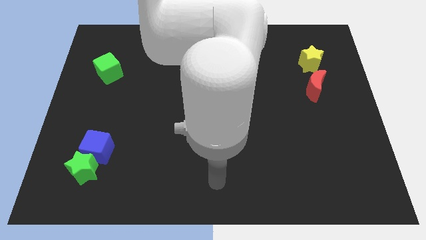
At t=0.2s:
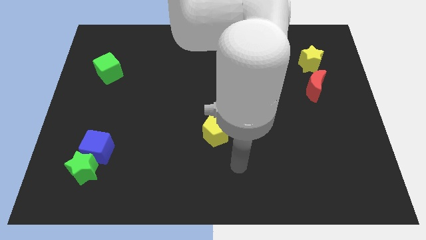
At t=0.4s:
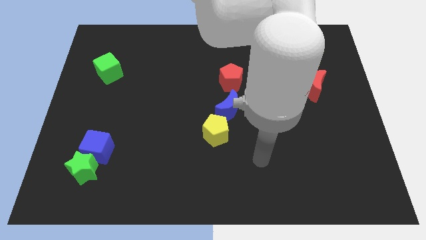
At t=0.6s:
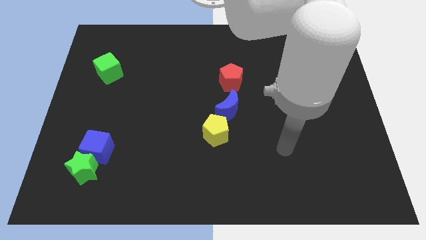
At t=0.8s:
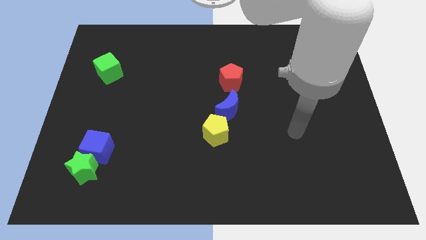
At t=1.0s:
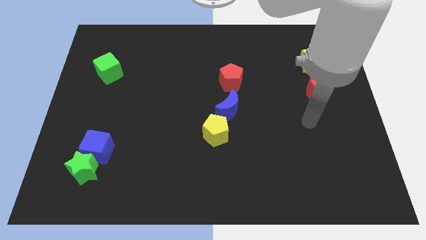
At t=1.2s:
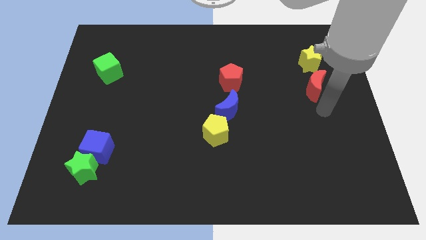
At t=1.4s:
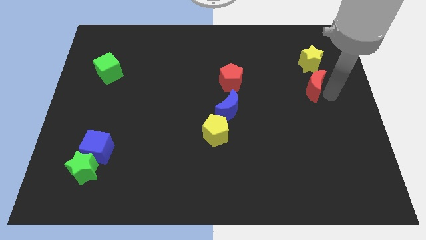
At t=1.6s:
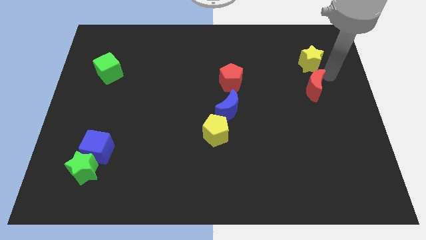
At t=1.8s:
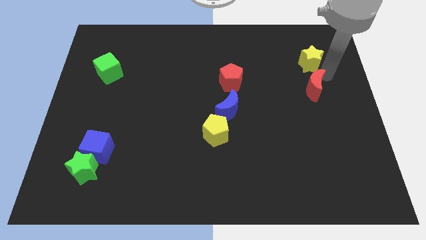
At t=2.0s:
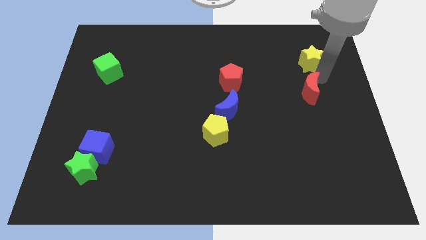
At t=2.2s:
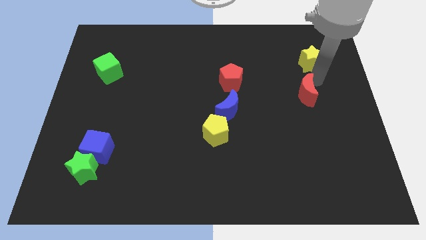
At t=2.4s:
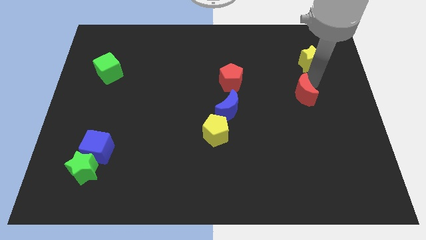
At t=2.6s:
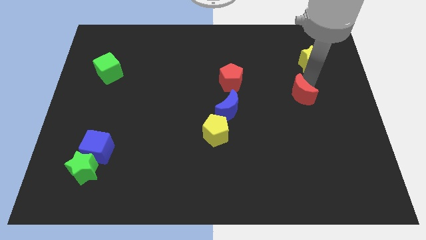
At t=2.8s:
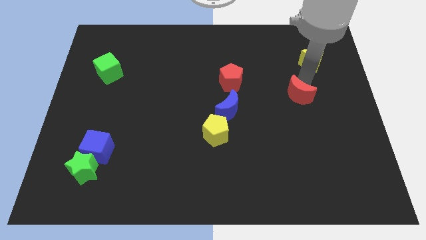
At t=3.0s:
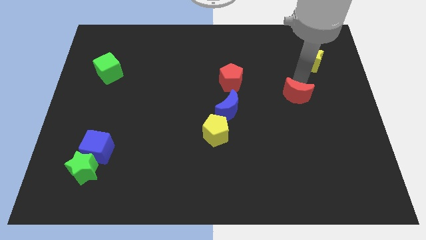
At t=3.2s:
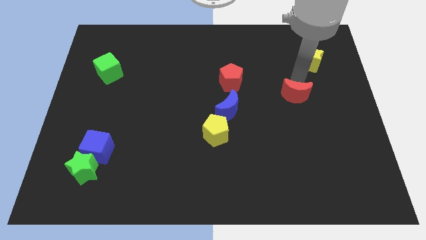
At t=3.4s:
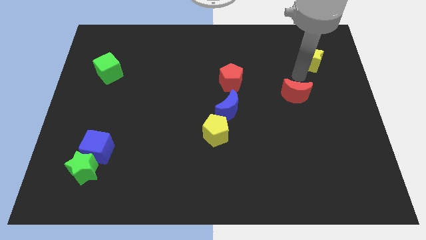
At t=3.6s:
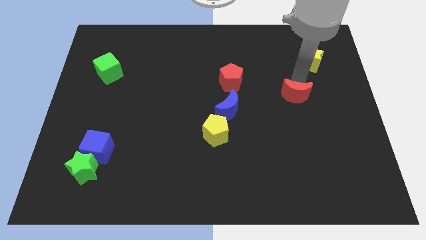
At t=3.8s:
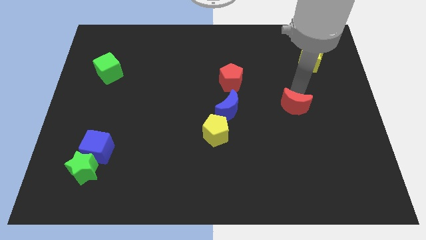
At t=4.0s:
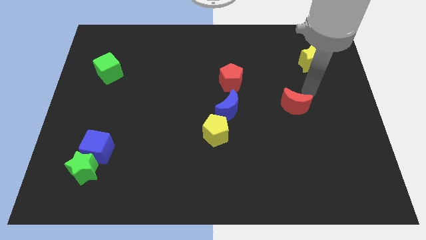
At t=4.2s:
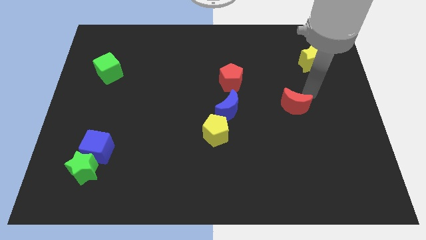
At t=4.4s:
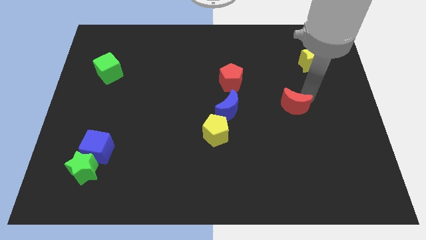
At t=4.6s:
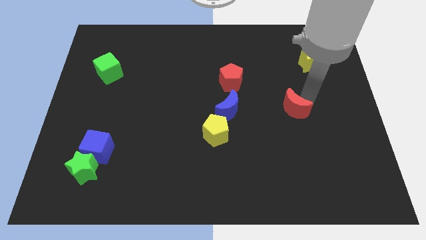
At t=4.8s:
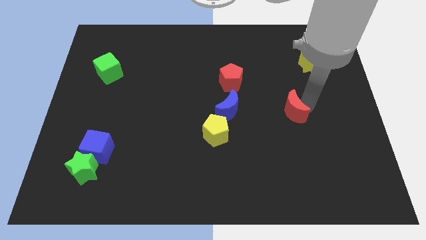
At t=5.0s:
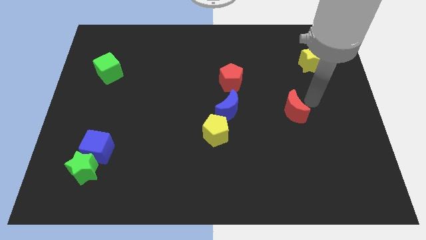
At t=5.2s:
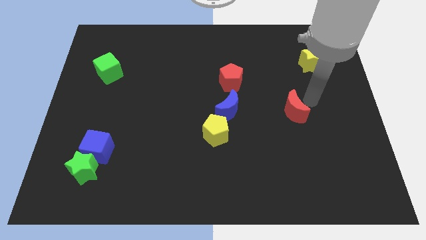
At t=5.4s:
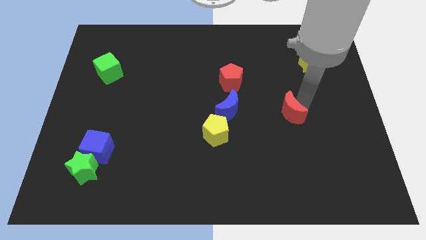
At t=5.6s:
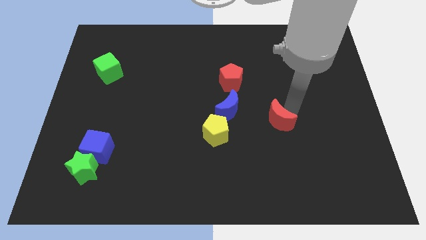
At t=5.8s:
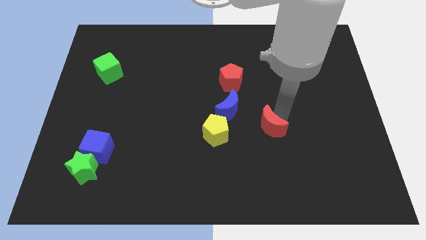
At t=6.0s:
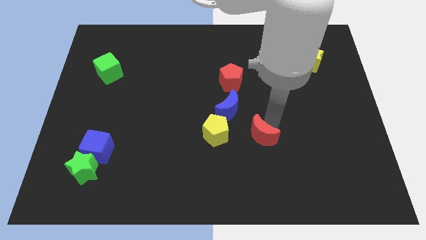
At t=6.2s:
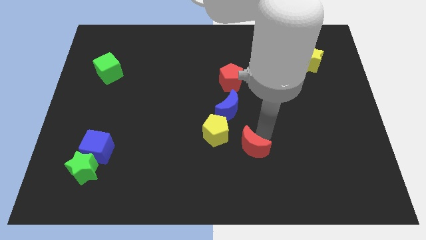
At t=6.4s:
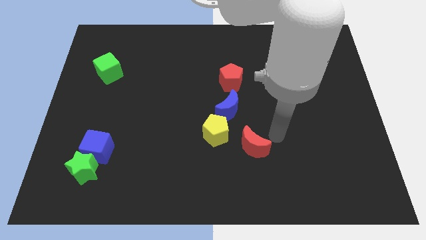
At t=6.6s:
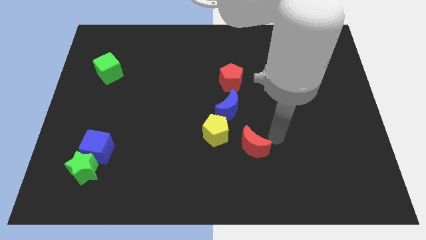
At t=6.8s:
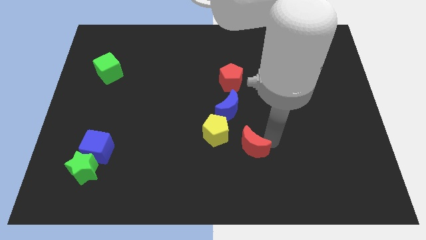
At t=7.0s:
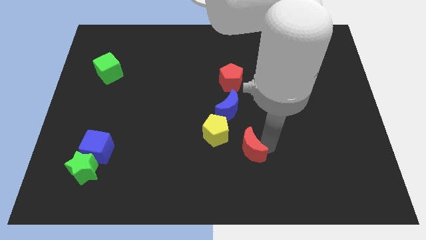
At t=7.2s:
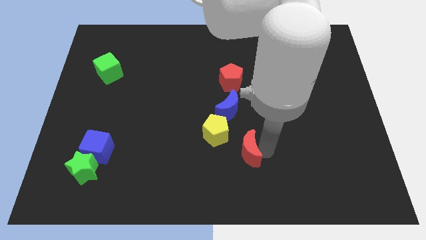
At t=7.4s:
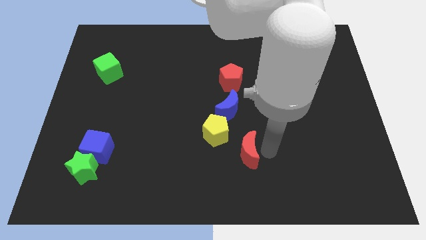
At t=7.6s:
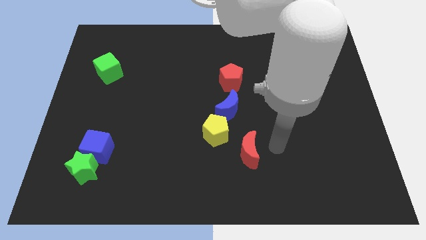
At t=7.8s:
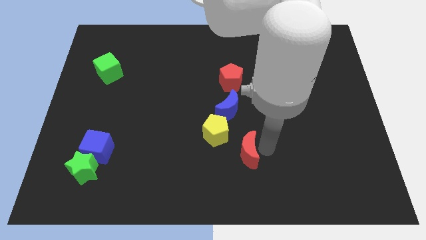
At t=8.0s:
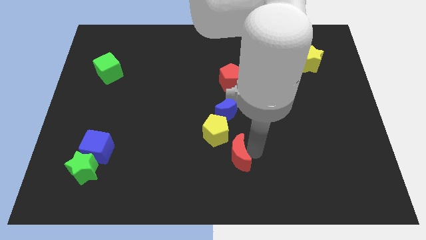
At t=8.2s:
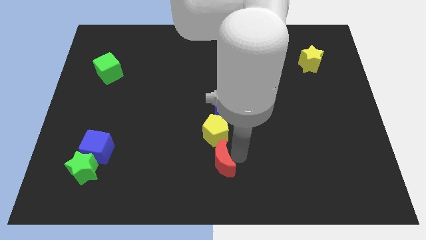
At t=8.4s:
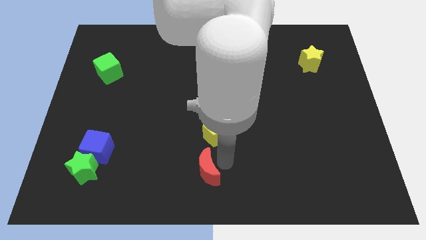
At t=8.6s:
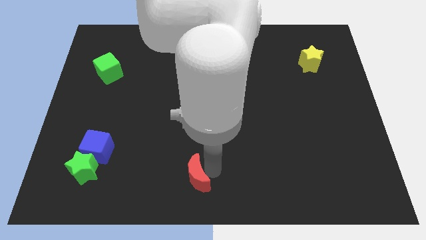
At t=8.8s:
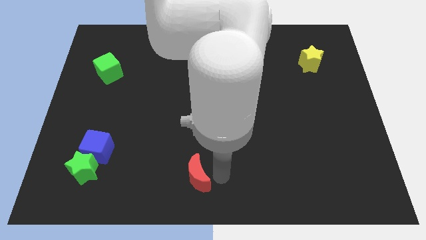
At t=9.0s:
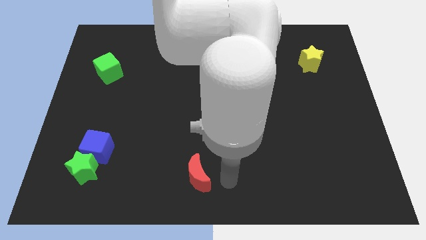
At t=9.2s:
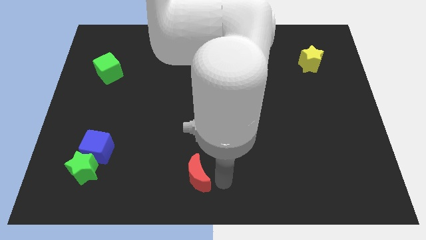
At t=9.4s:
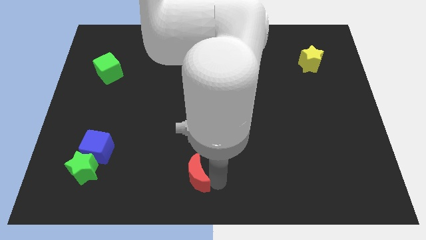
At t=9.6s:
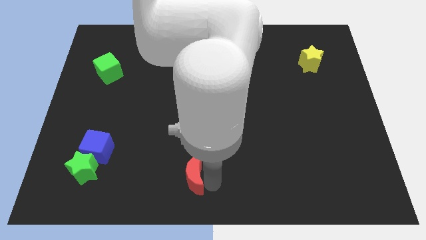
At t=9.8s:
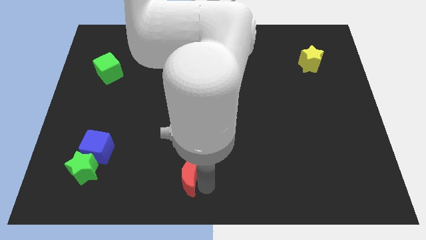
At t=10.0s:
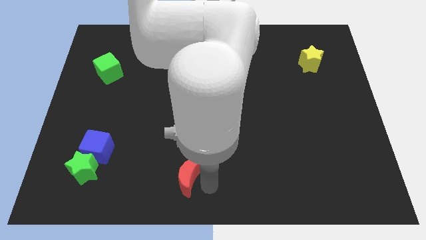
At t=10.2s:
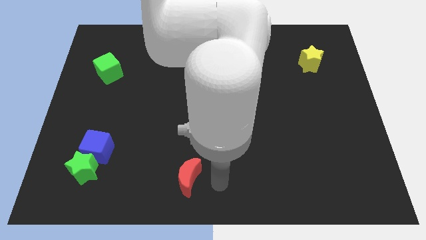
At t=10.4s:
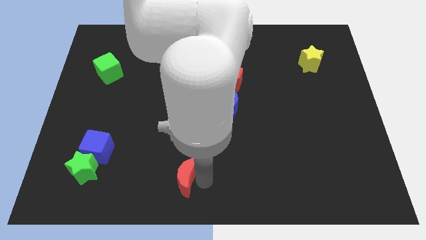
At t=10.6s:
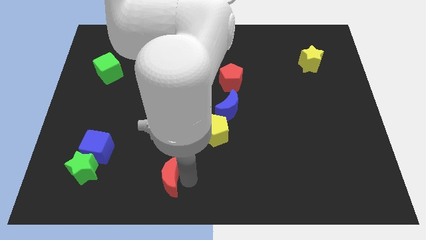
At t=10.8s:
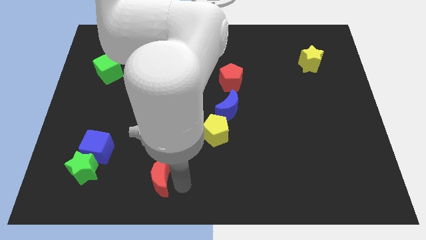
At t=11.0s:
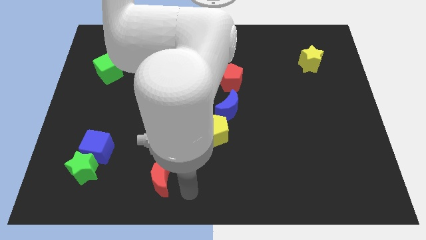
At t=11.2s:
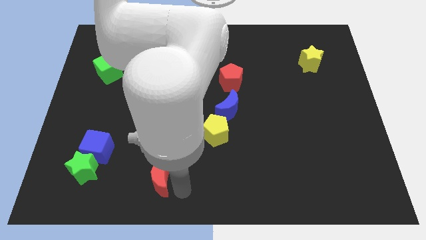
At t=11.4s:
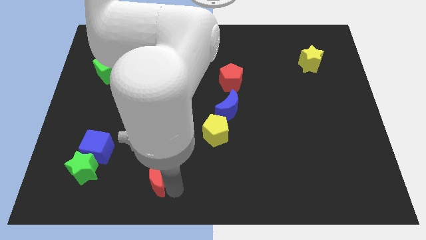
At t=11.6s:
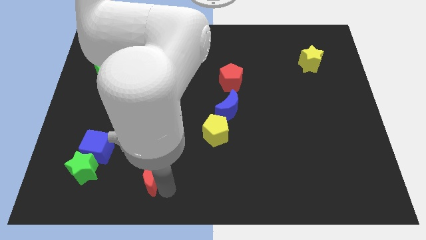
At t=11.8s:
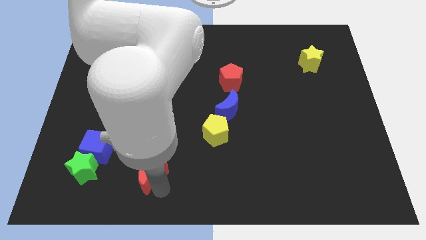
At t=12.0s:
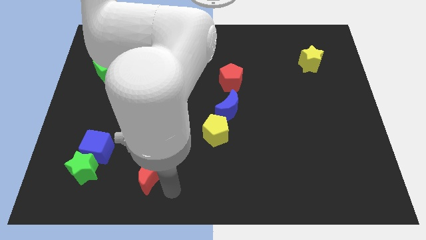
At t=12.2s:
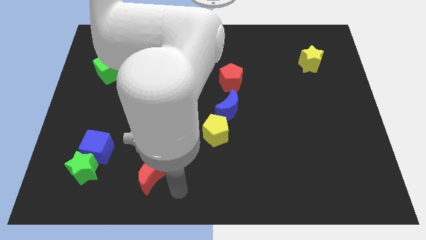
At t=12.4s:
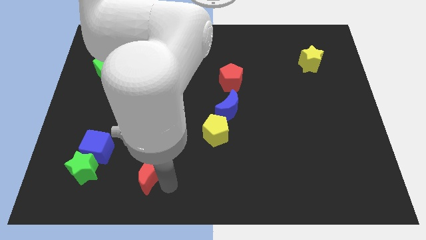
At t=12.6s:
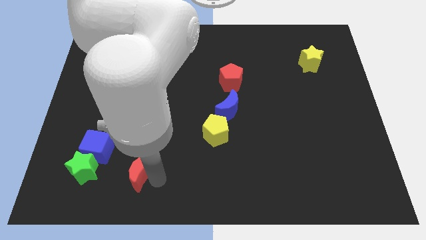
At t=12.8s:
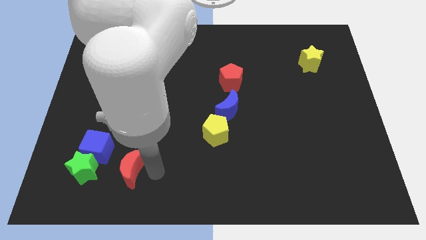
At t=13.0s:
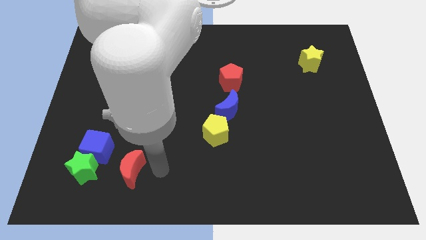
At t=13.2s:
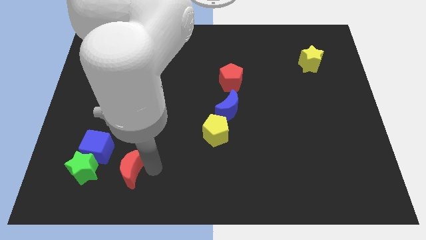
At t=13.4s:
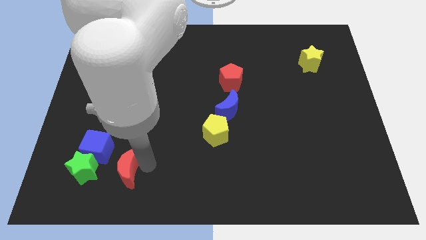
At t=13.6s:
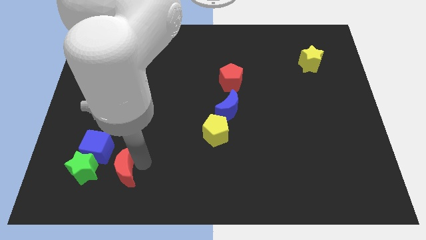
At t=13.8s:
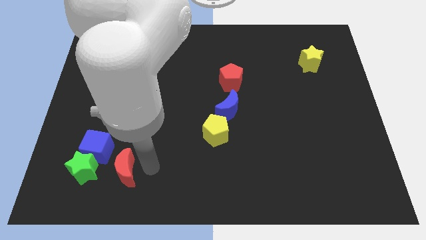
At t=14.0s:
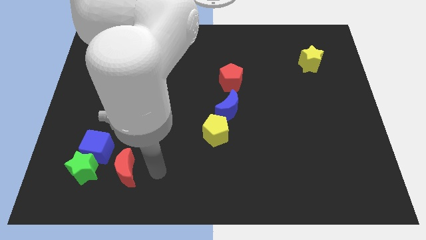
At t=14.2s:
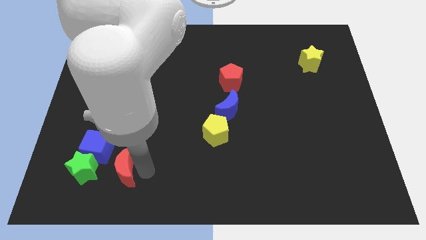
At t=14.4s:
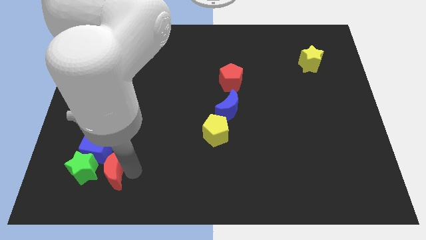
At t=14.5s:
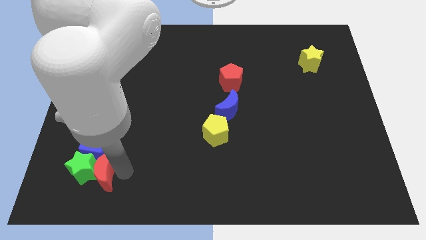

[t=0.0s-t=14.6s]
move the red moon to the green star
